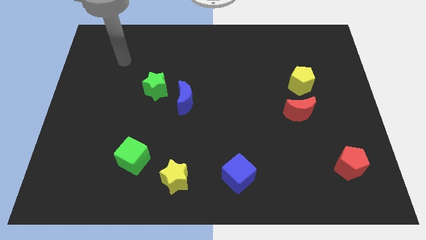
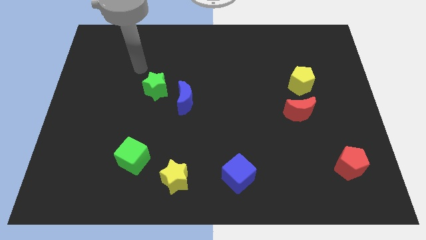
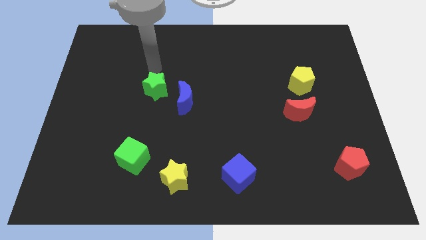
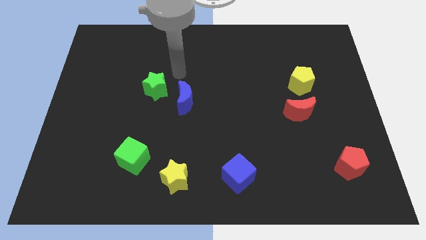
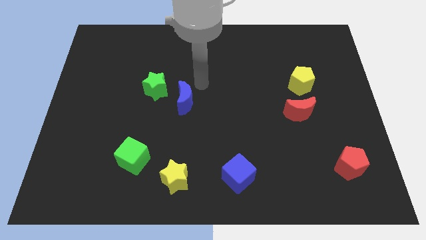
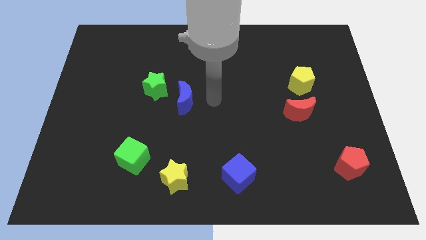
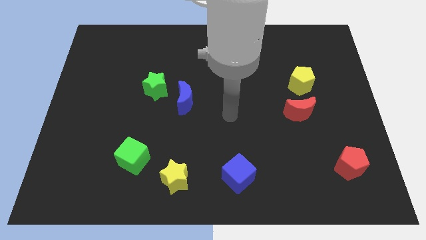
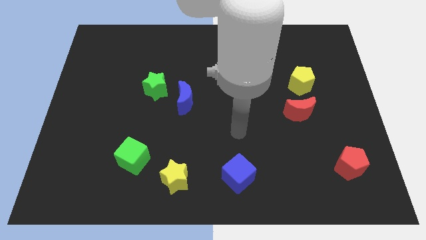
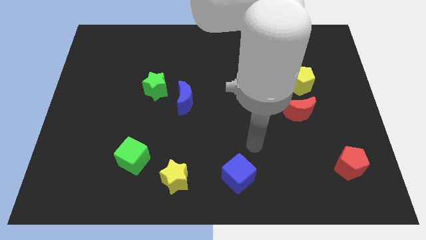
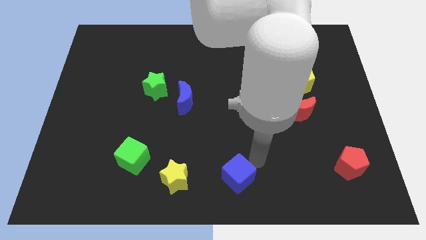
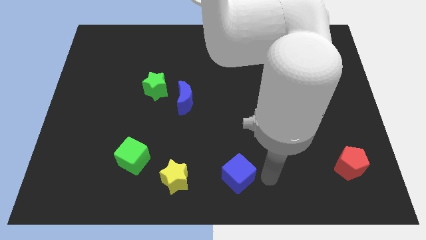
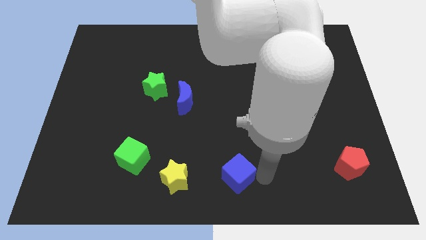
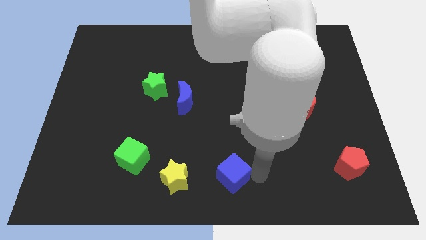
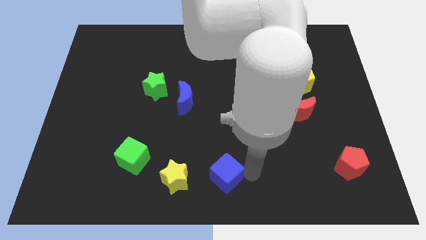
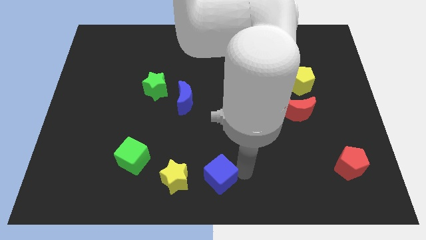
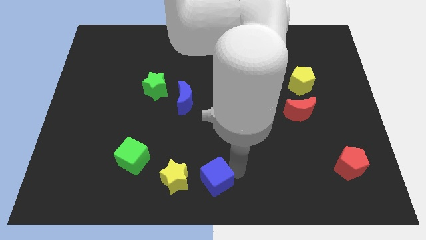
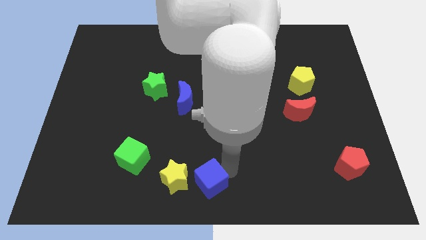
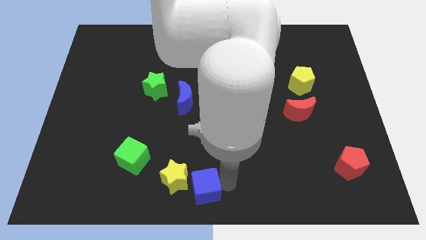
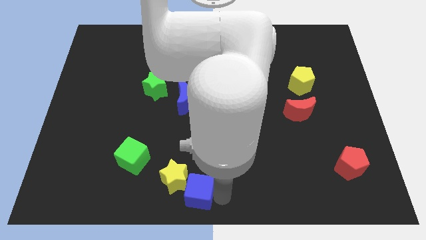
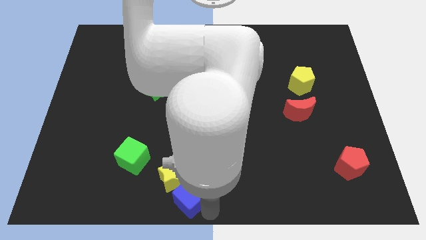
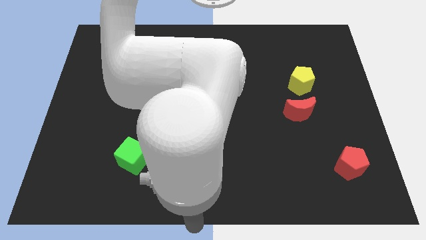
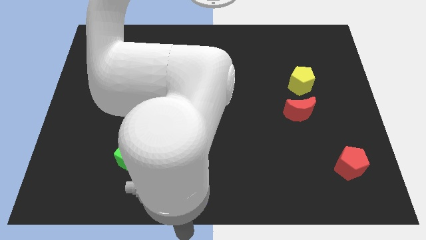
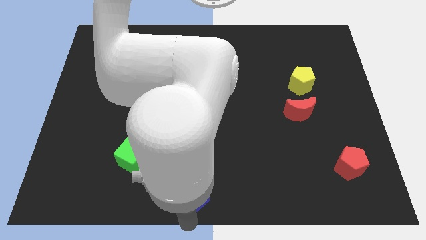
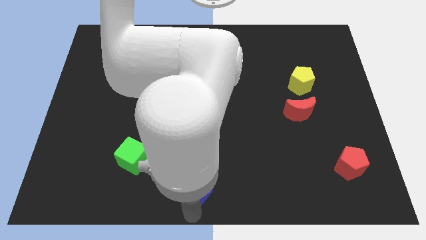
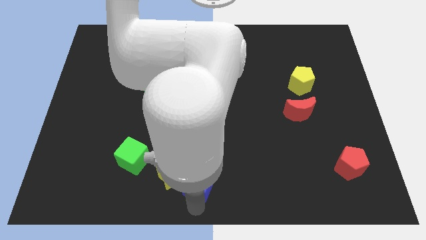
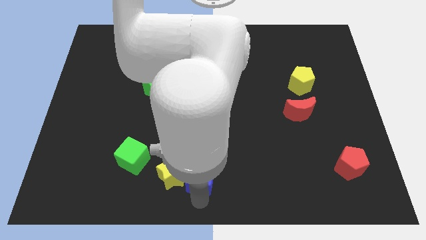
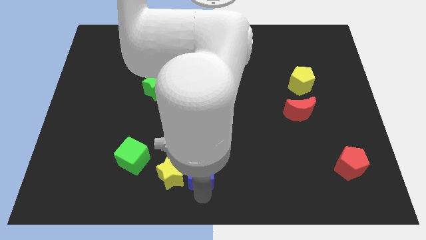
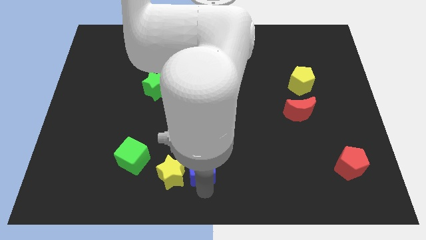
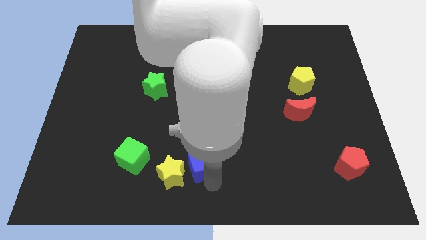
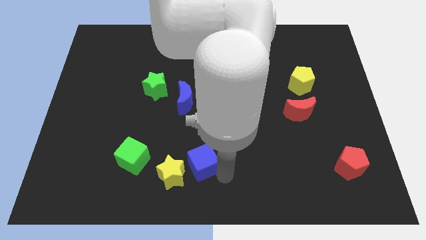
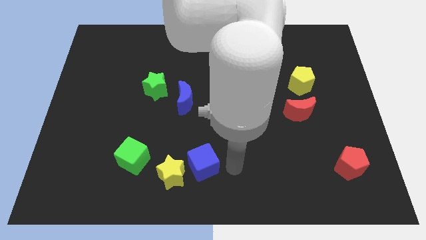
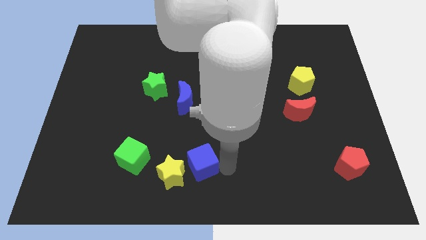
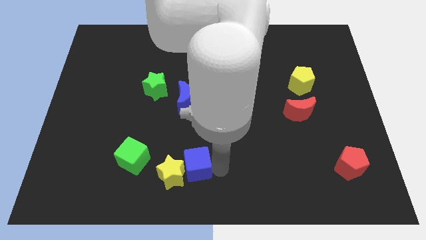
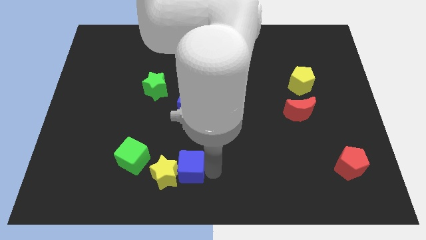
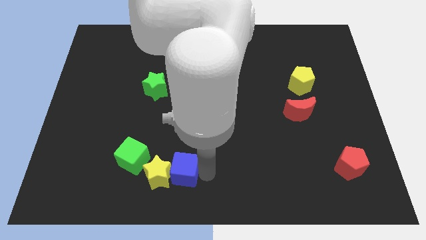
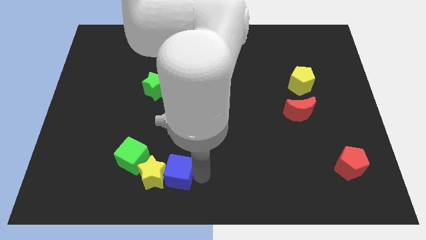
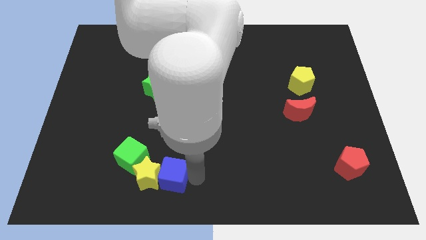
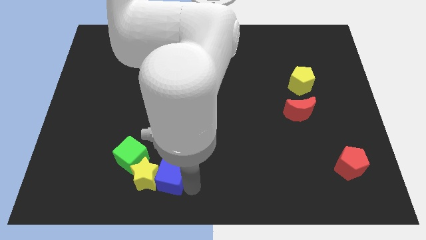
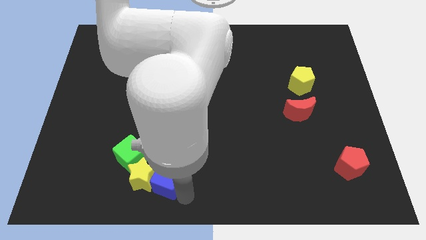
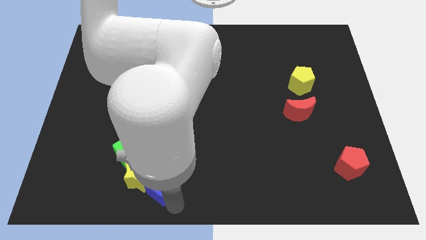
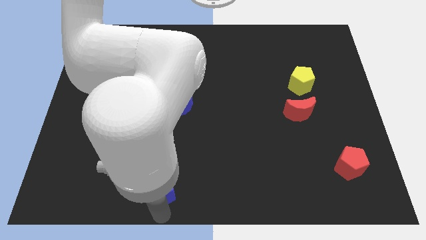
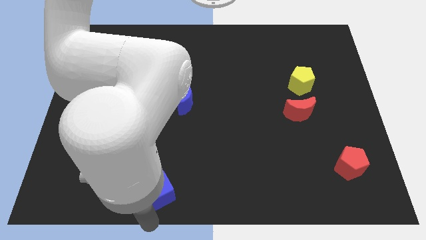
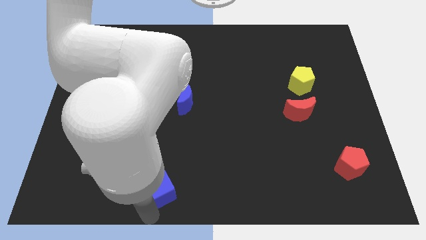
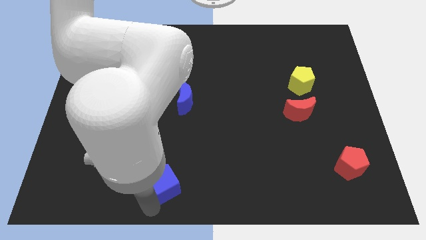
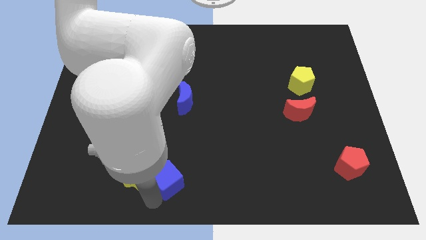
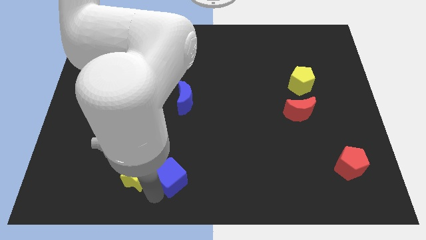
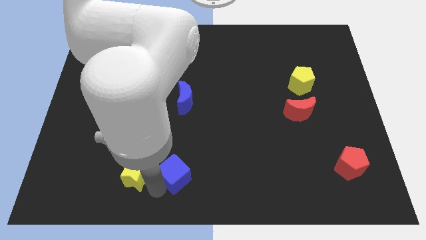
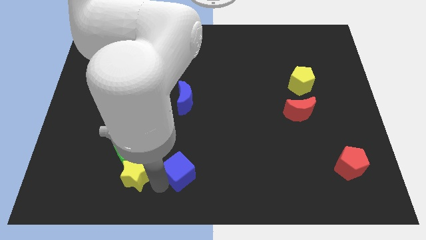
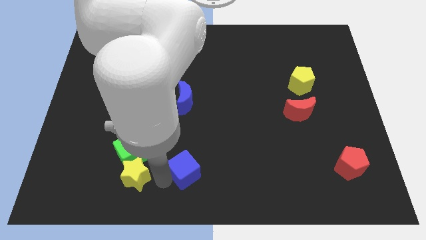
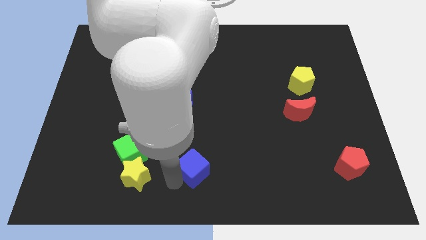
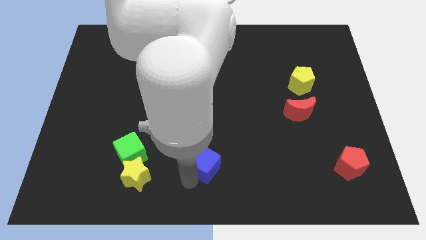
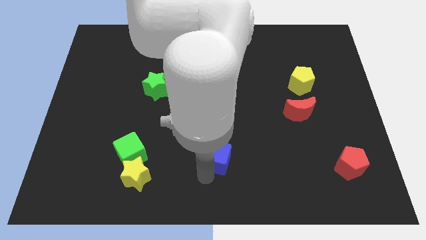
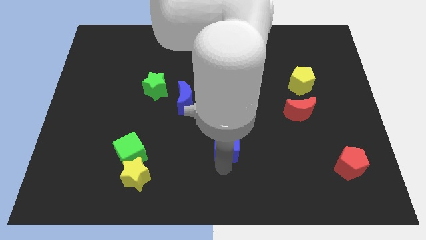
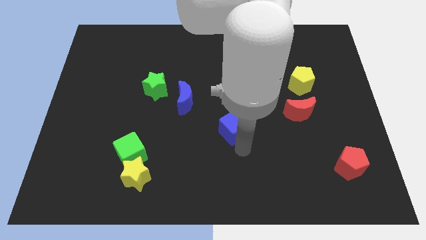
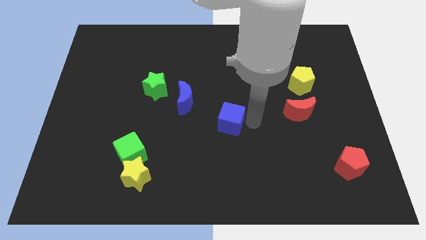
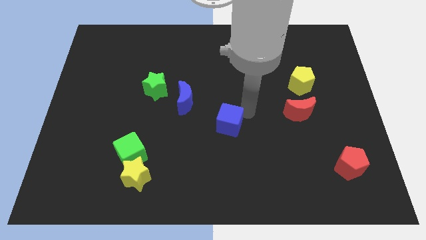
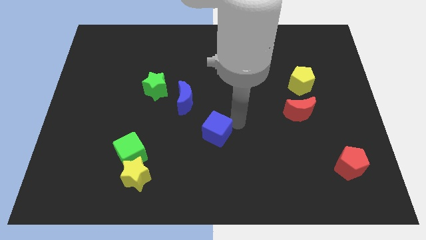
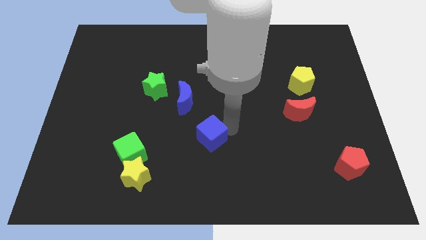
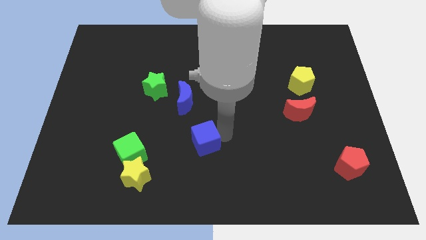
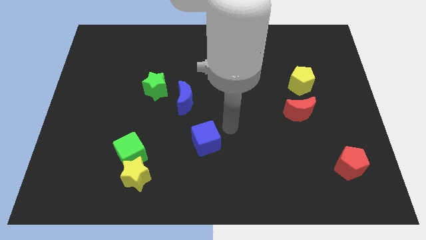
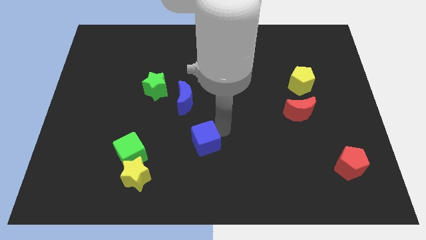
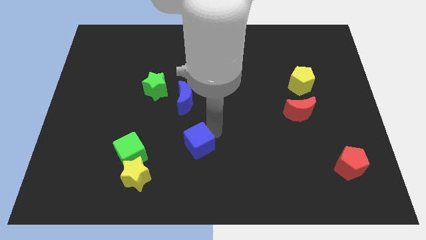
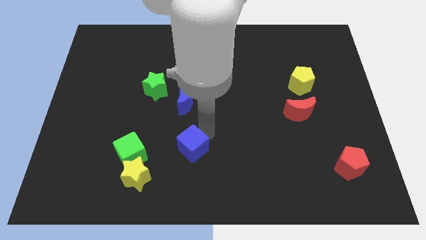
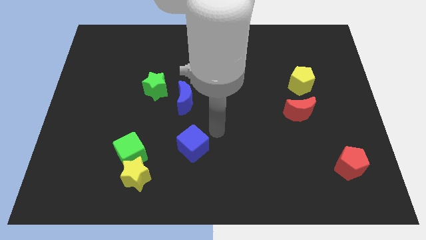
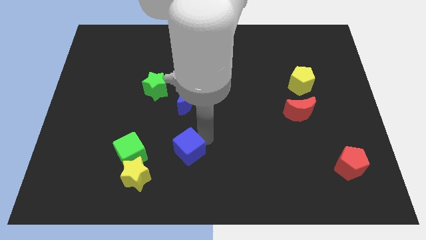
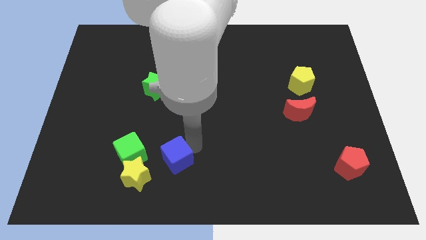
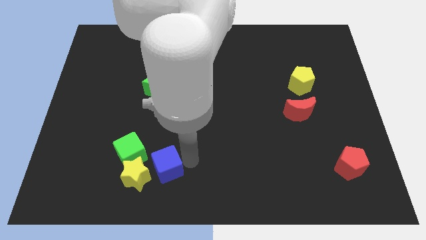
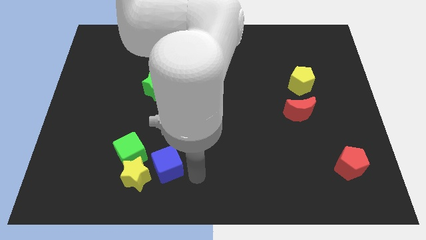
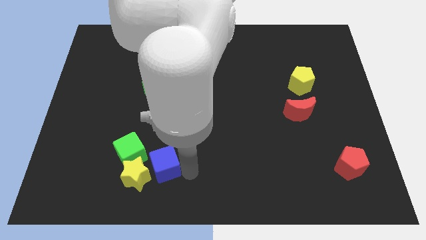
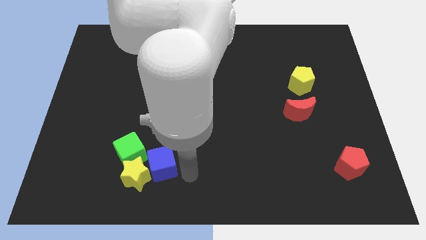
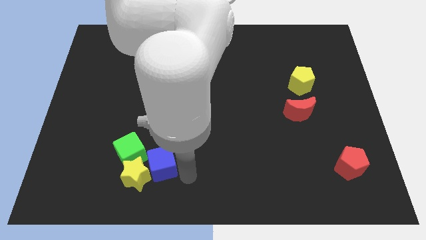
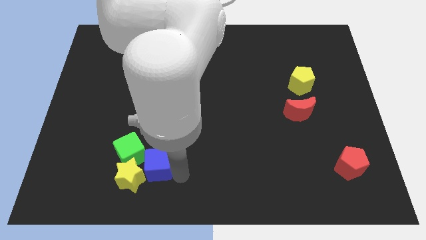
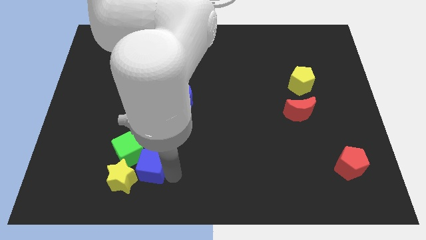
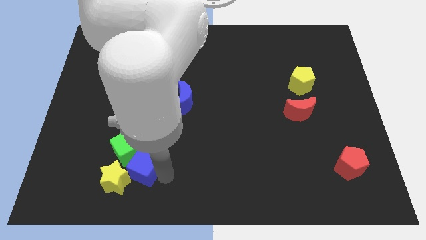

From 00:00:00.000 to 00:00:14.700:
slide the blue cube to the green cube
